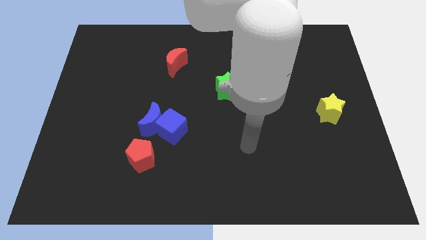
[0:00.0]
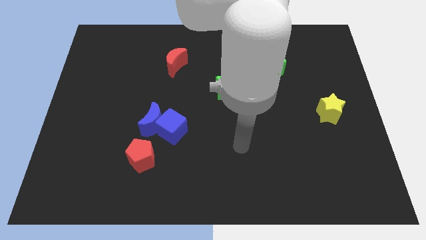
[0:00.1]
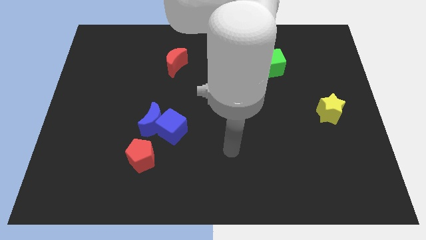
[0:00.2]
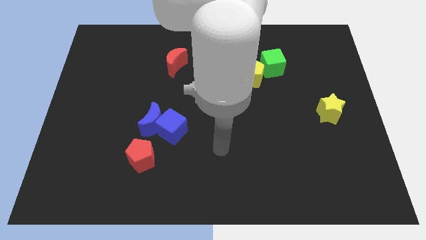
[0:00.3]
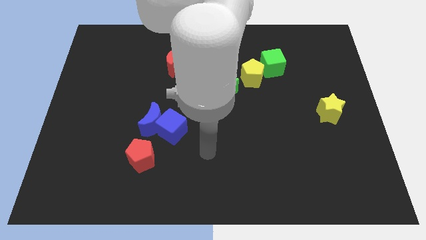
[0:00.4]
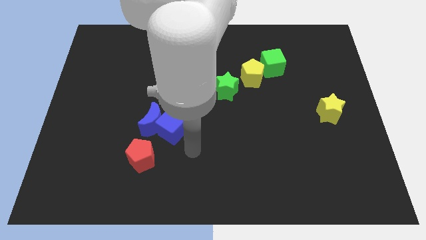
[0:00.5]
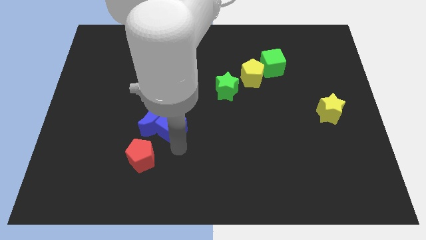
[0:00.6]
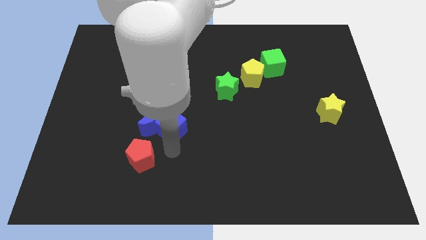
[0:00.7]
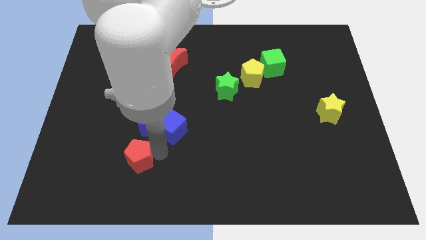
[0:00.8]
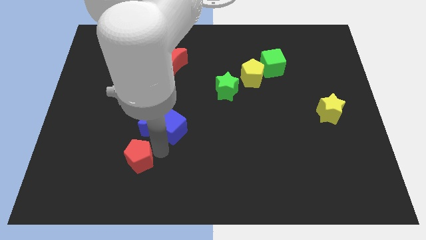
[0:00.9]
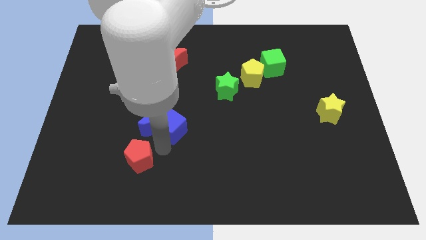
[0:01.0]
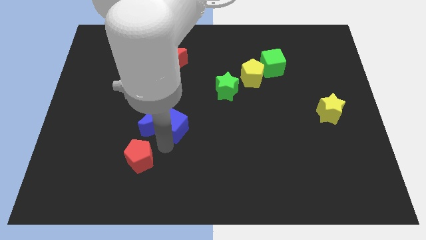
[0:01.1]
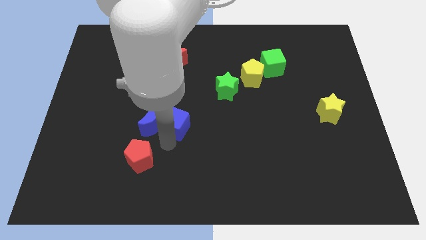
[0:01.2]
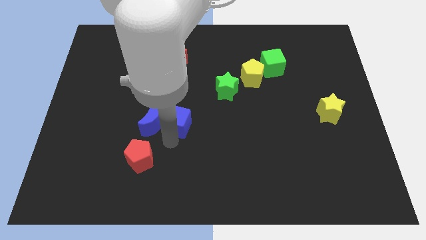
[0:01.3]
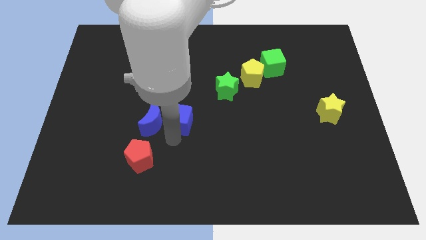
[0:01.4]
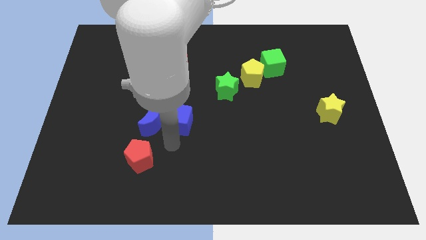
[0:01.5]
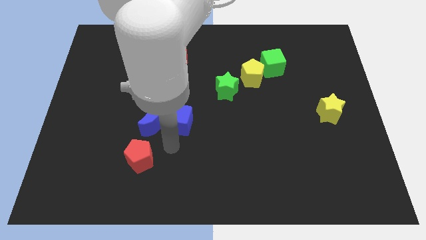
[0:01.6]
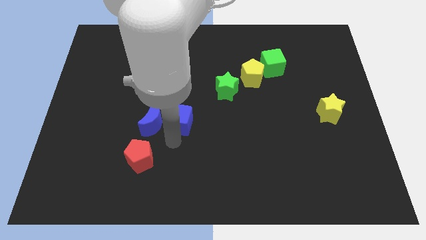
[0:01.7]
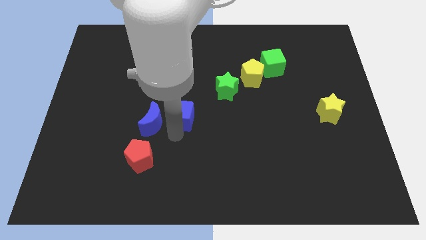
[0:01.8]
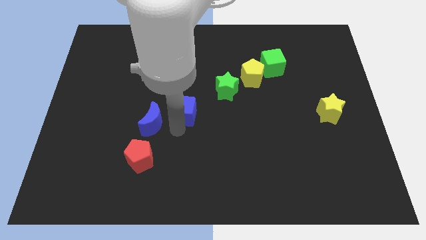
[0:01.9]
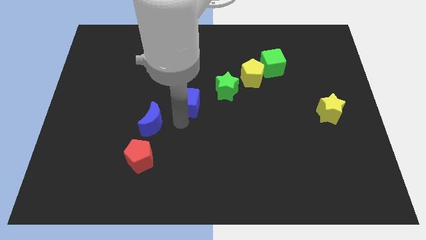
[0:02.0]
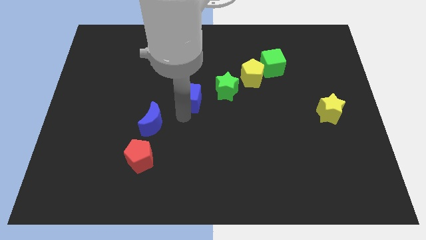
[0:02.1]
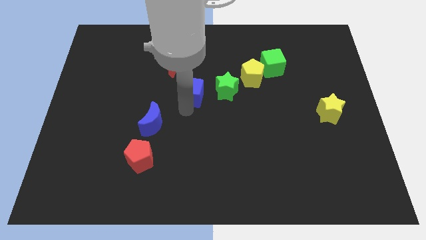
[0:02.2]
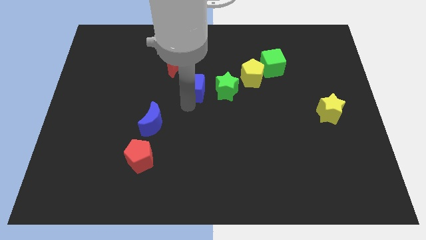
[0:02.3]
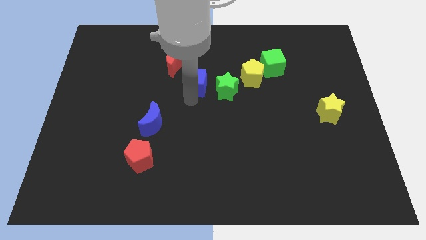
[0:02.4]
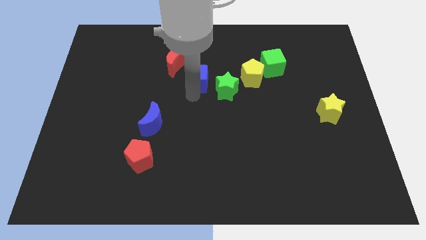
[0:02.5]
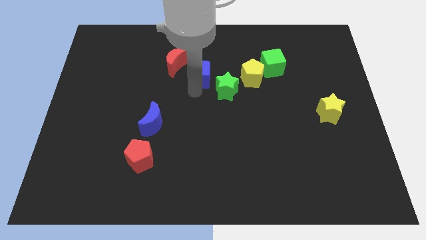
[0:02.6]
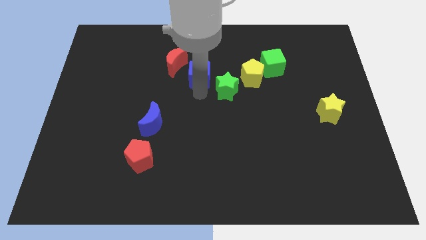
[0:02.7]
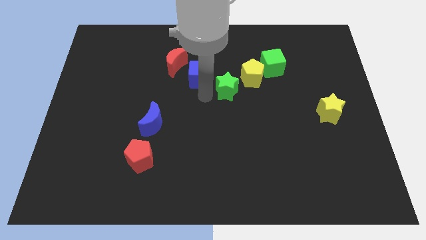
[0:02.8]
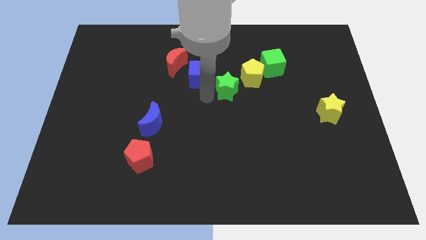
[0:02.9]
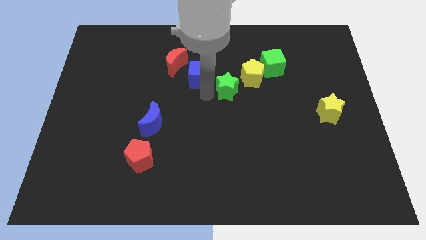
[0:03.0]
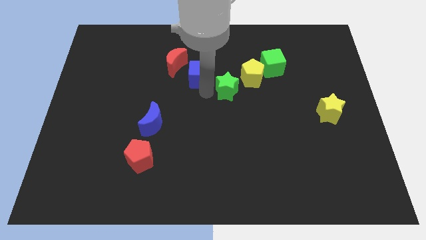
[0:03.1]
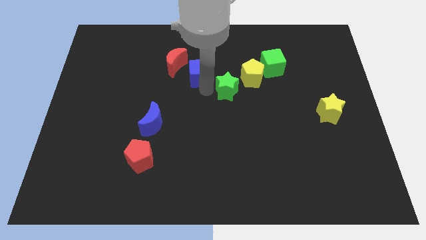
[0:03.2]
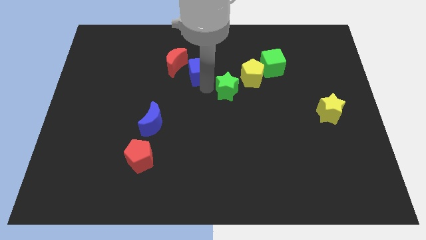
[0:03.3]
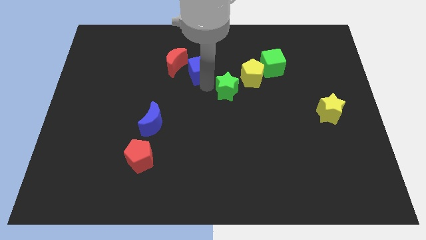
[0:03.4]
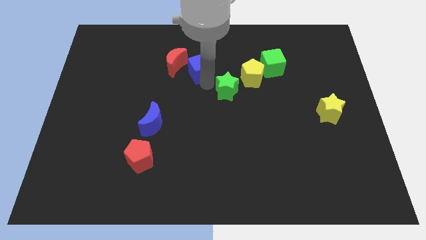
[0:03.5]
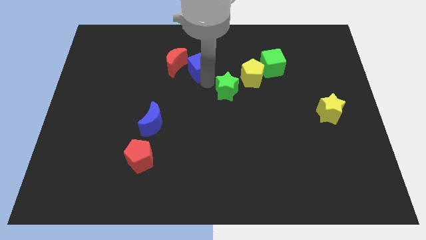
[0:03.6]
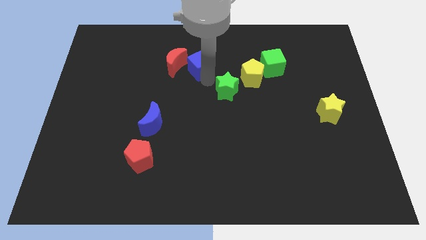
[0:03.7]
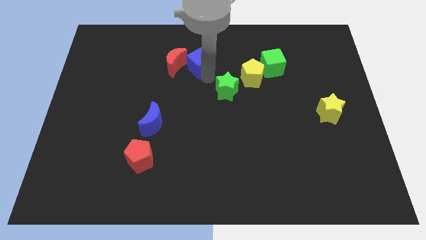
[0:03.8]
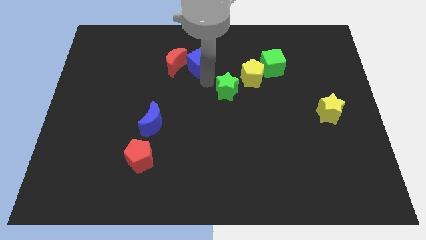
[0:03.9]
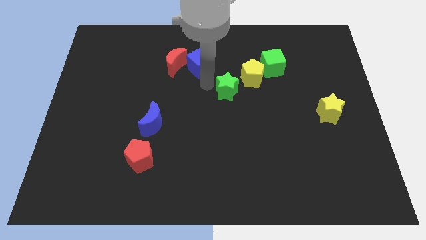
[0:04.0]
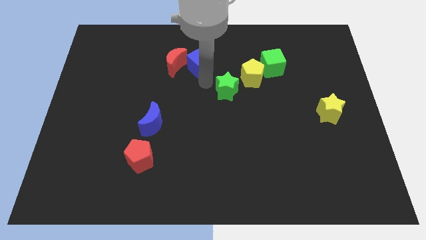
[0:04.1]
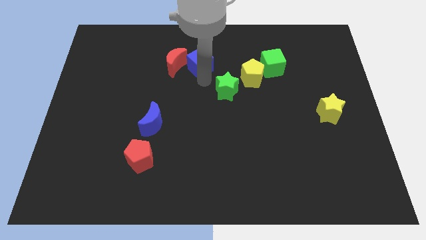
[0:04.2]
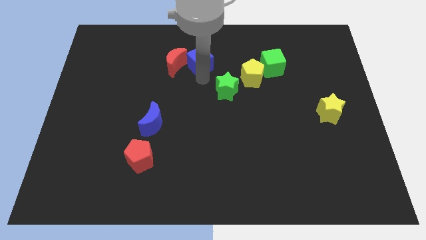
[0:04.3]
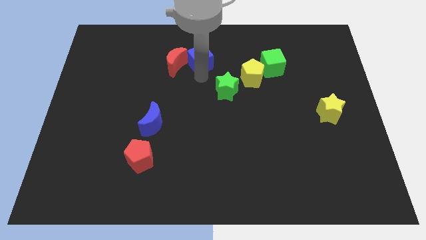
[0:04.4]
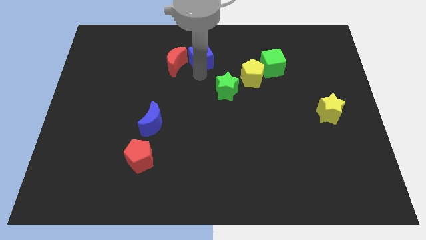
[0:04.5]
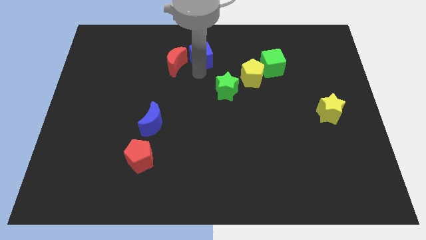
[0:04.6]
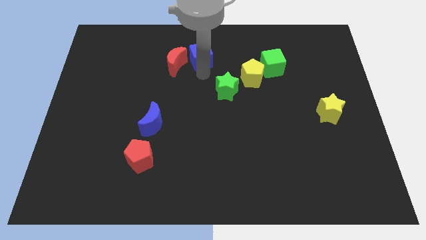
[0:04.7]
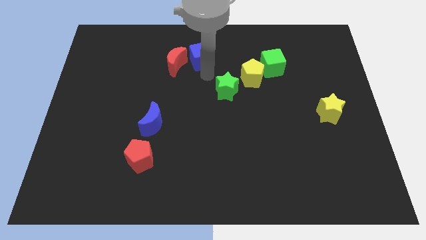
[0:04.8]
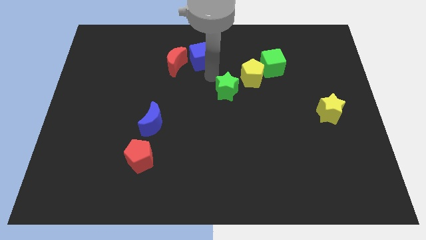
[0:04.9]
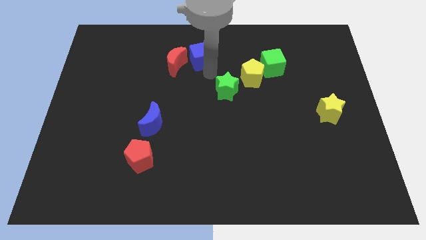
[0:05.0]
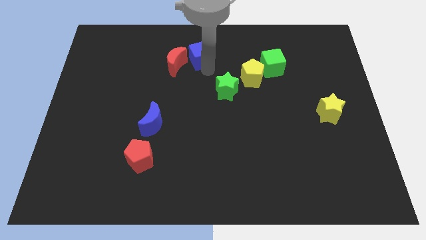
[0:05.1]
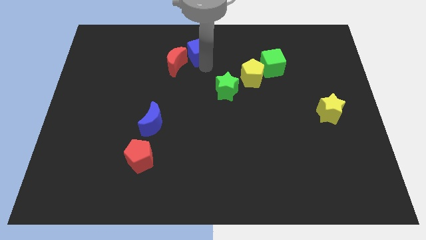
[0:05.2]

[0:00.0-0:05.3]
push the blue cube to the top side
